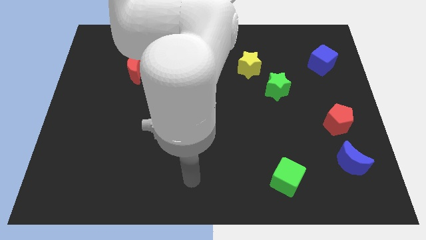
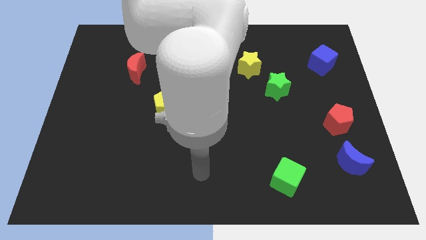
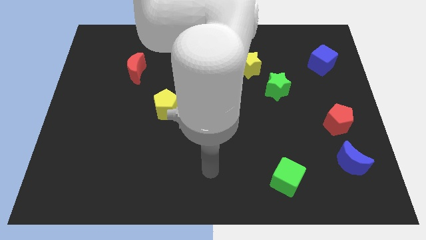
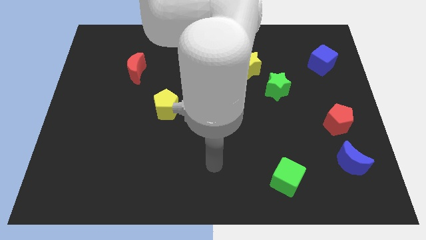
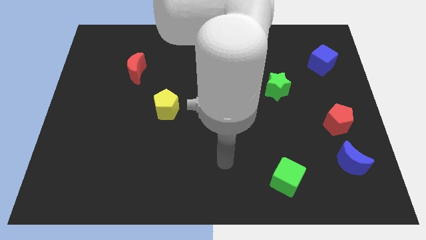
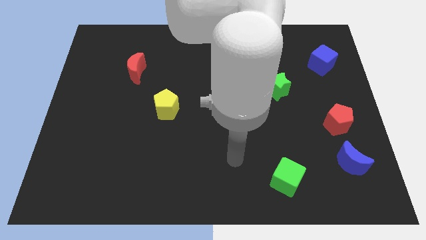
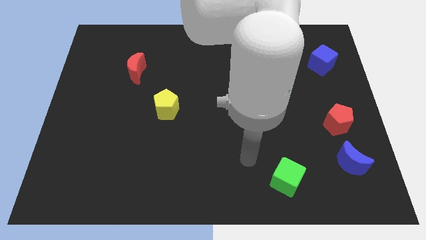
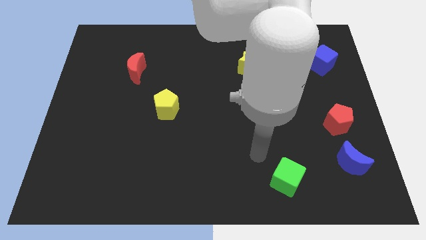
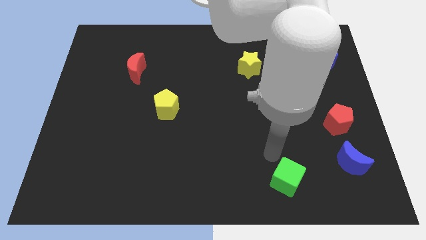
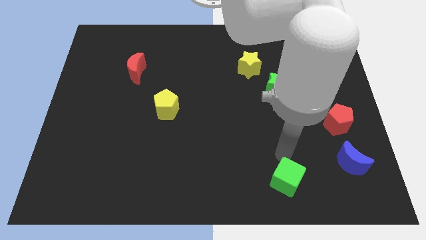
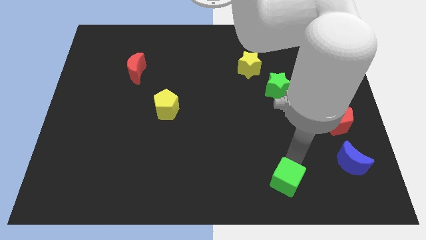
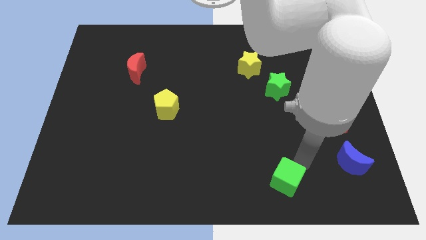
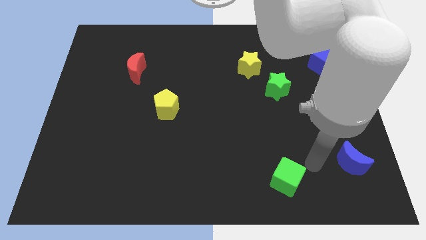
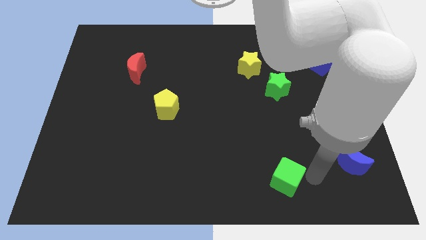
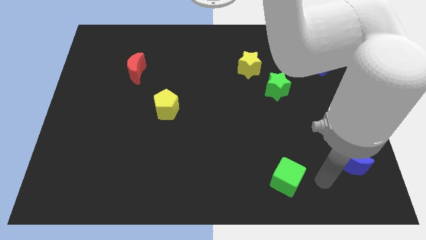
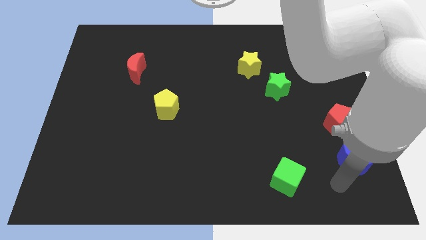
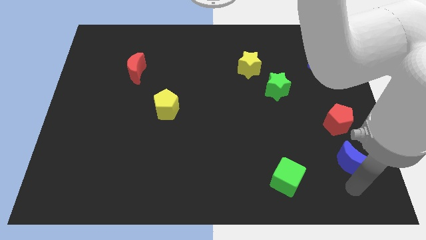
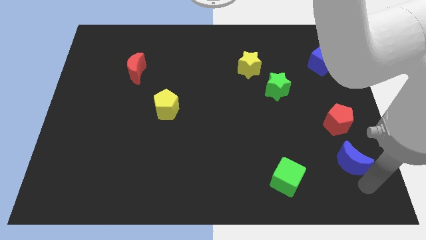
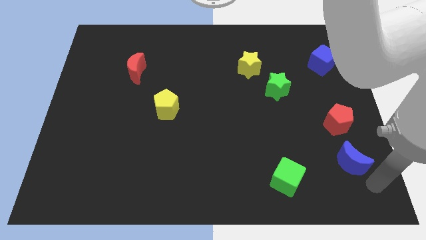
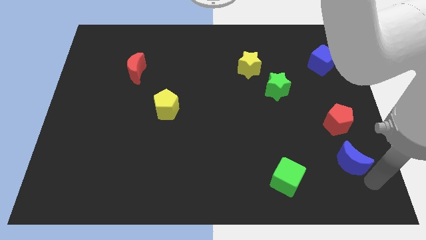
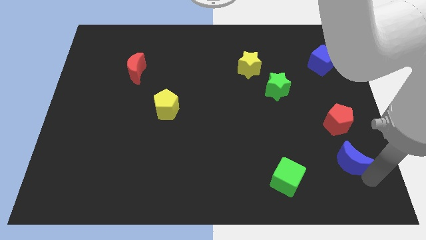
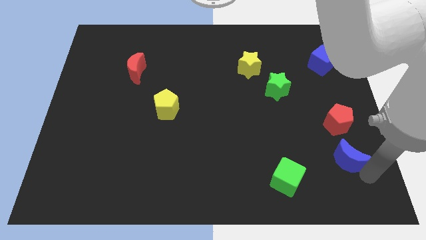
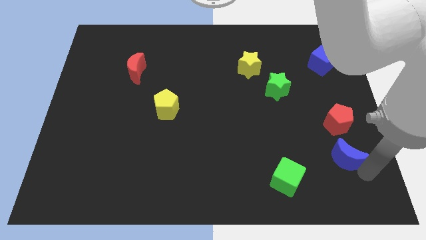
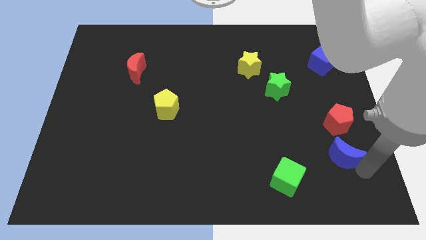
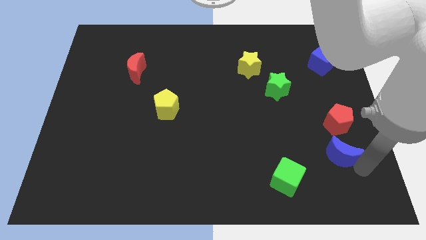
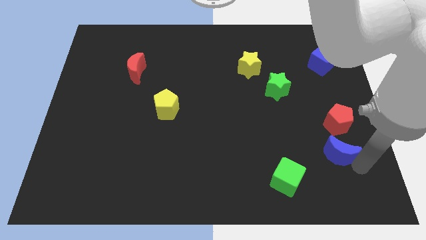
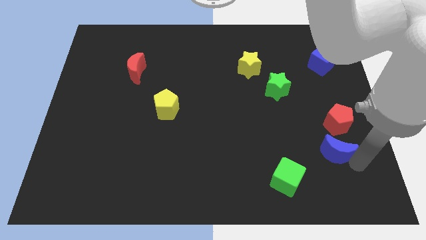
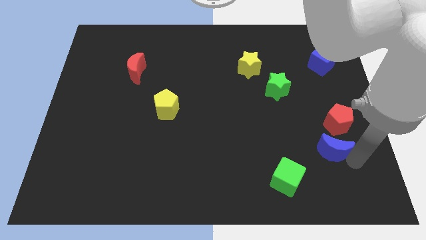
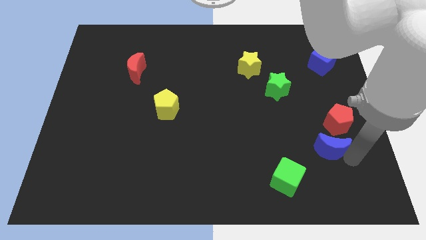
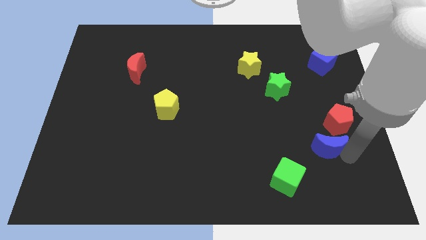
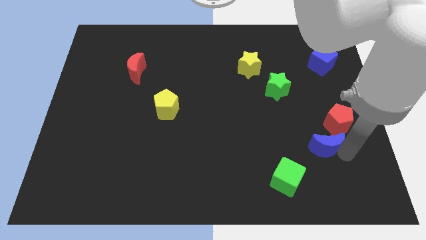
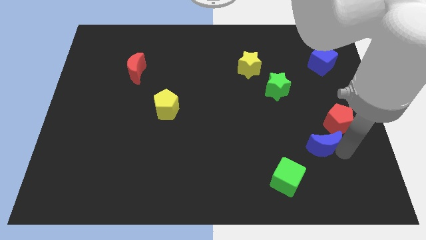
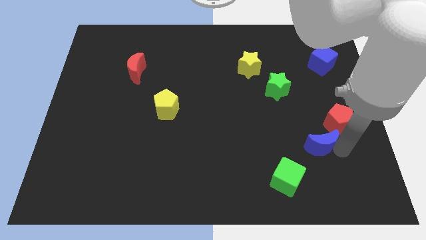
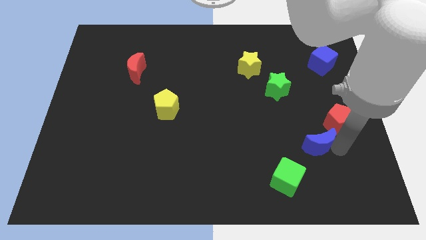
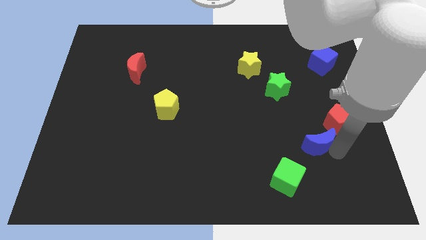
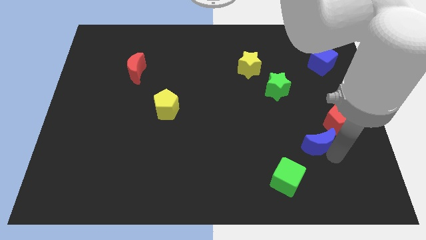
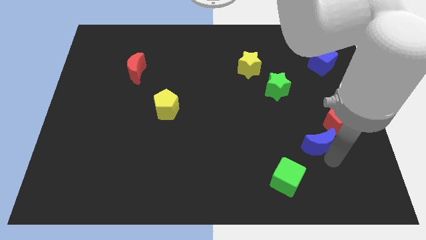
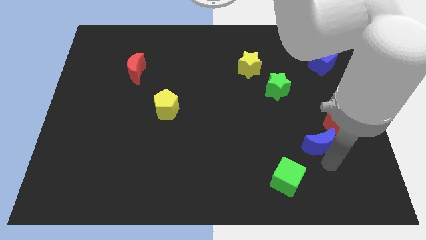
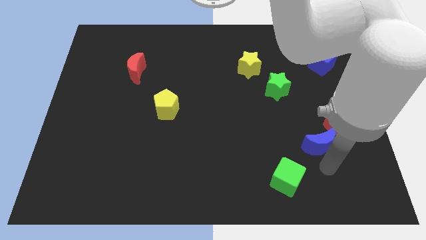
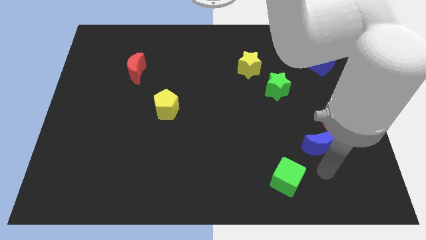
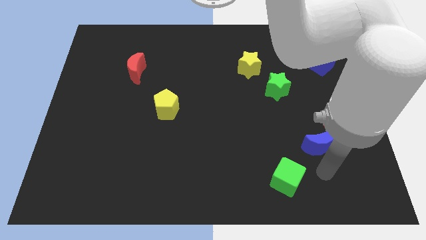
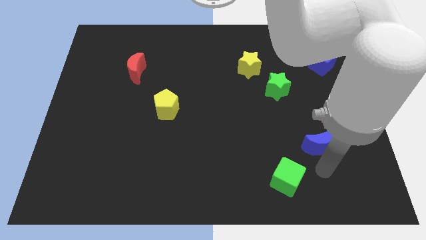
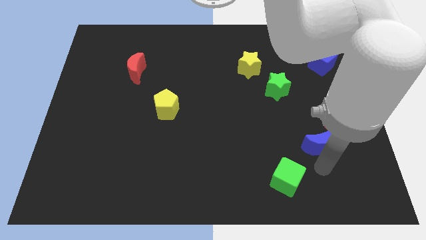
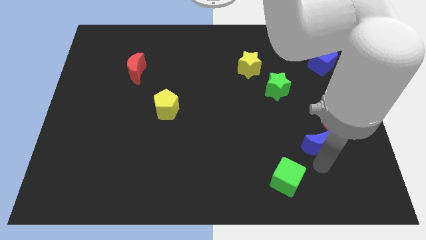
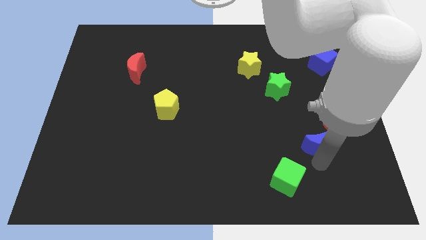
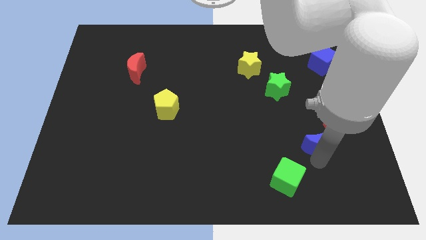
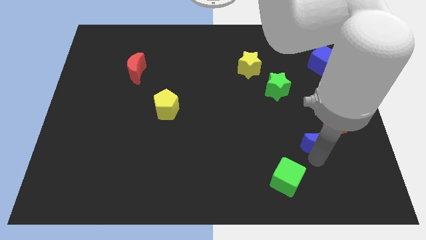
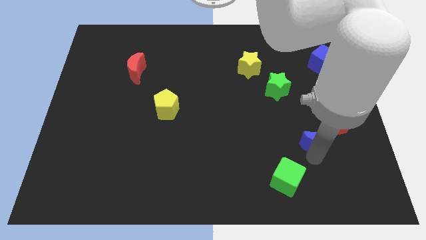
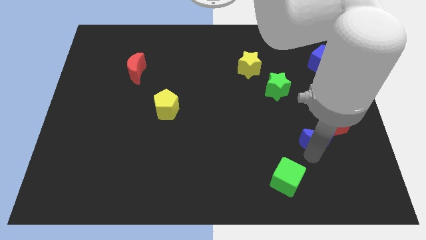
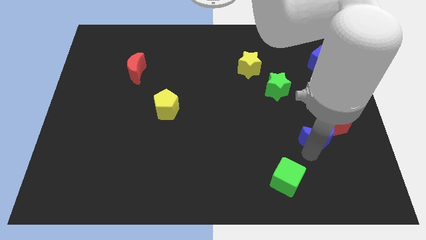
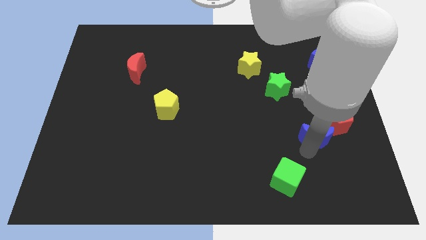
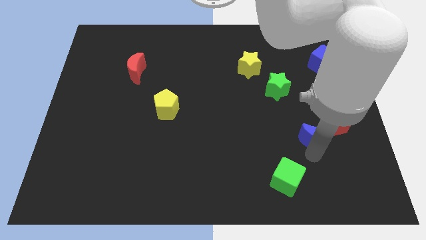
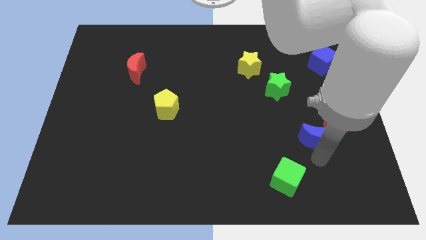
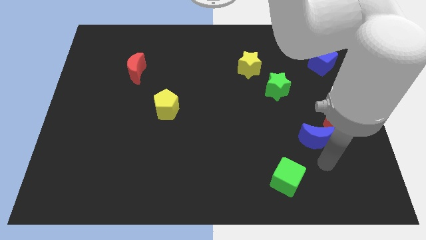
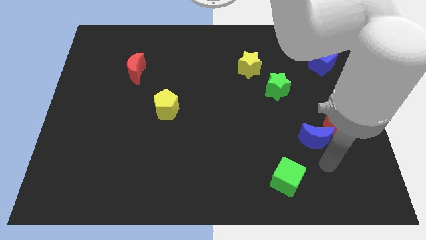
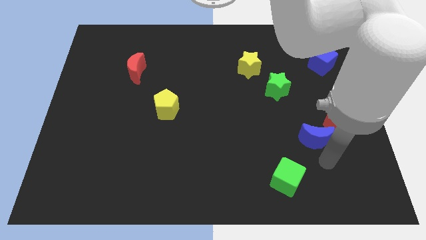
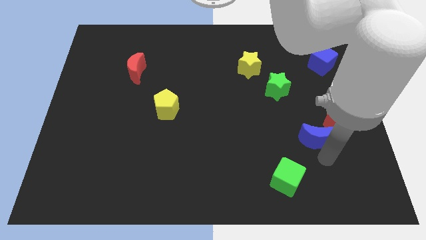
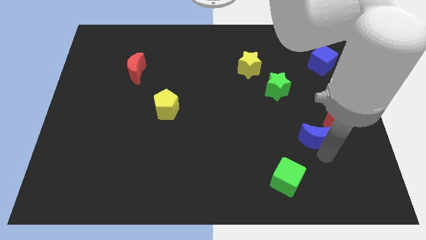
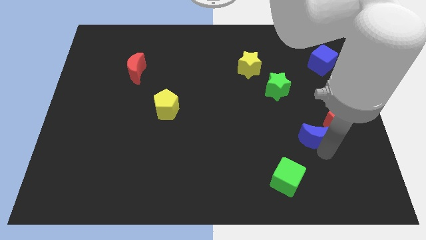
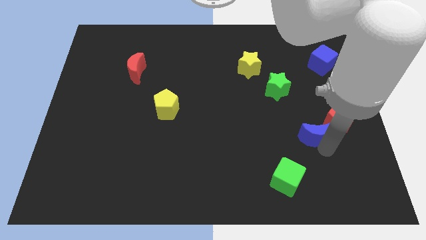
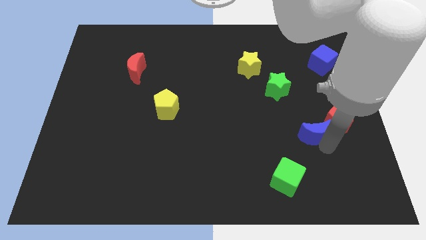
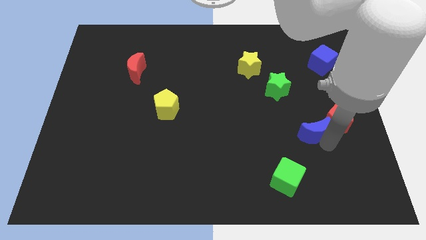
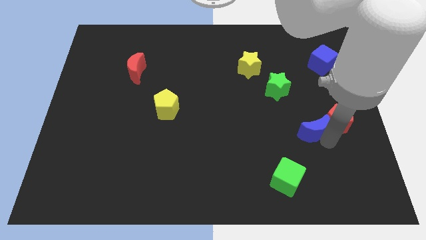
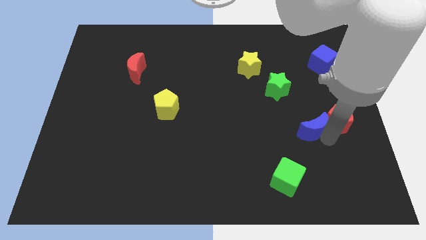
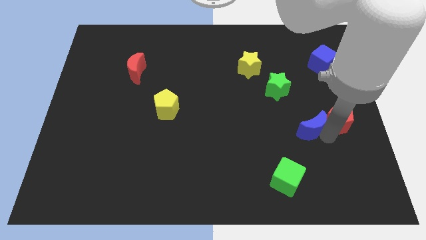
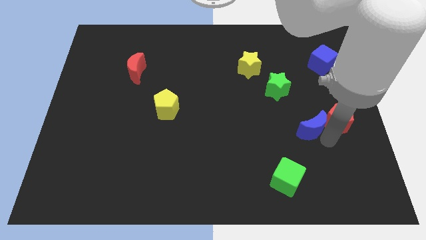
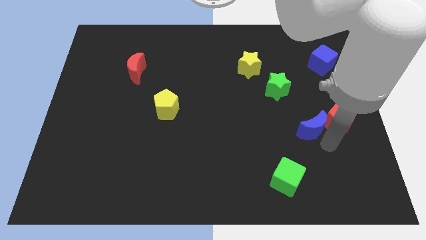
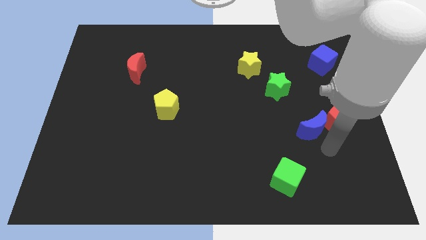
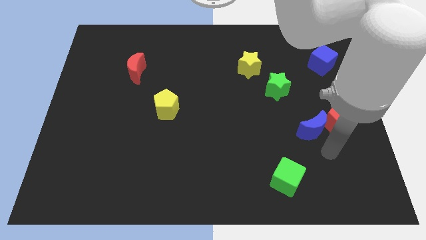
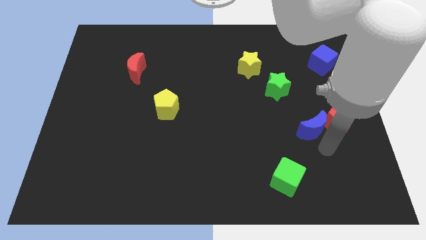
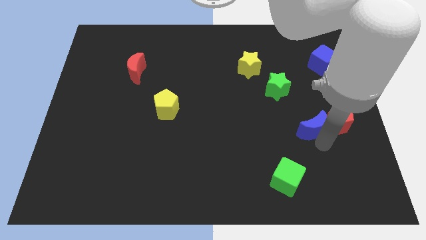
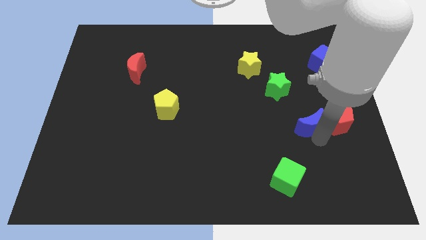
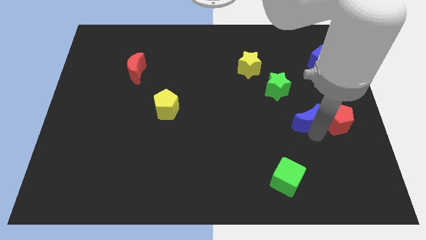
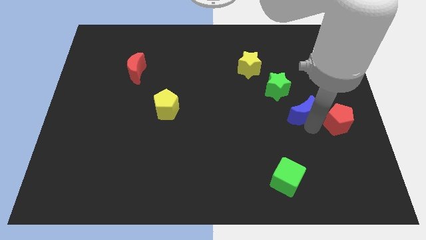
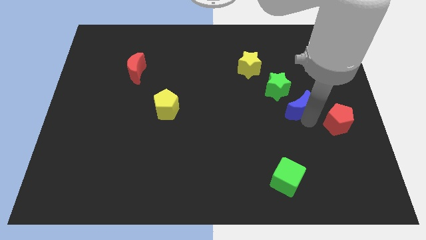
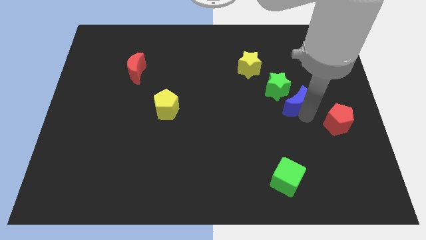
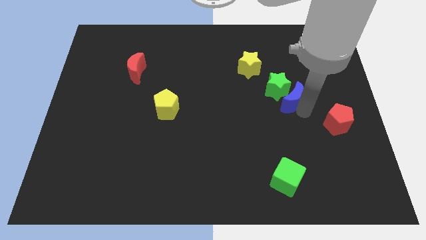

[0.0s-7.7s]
push the blue moon next to the green star

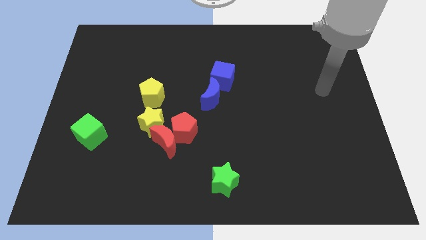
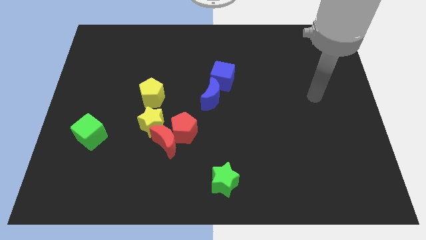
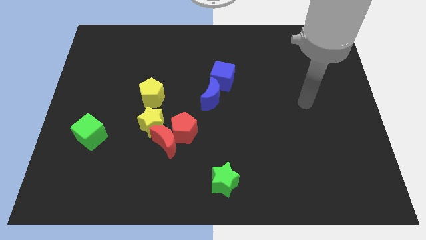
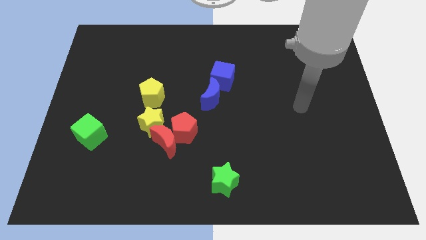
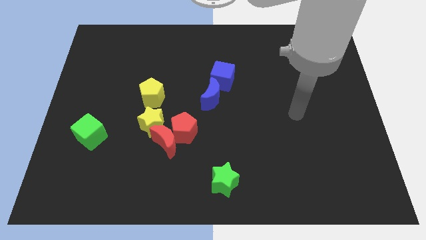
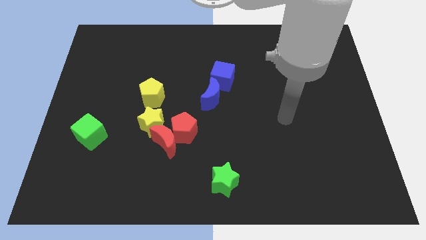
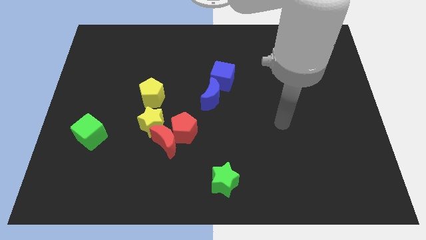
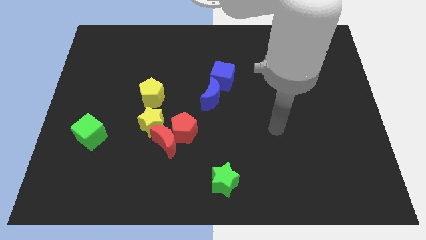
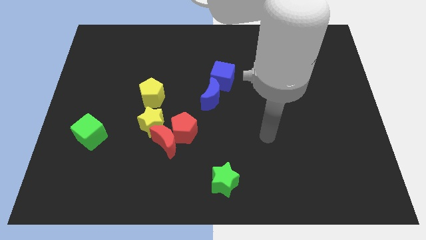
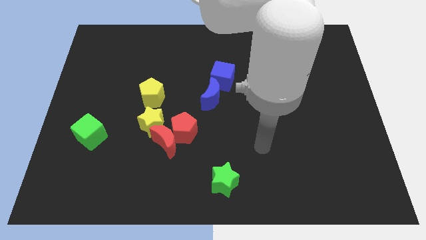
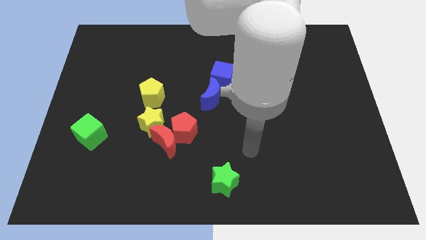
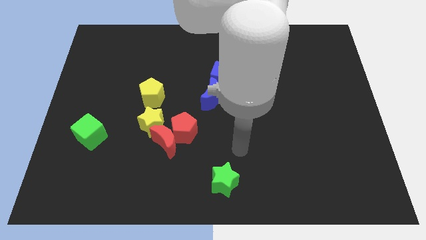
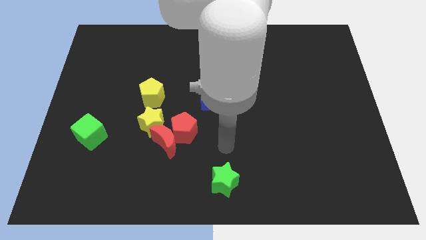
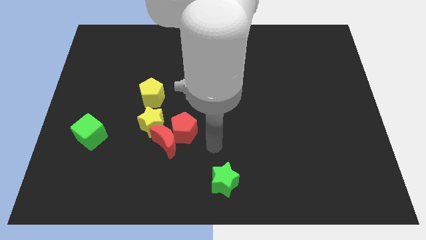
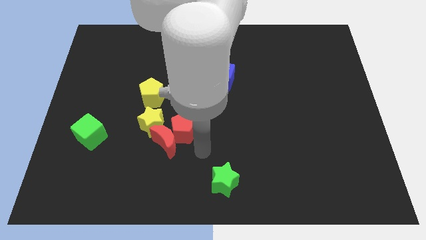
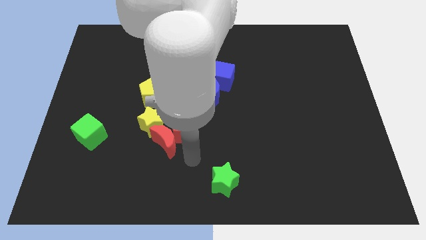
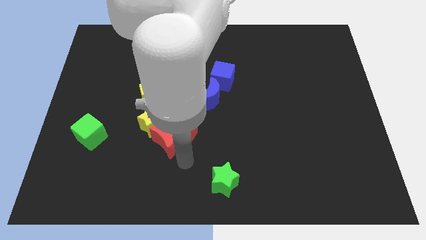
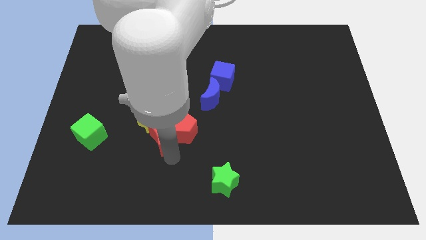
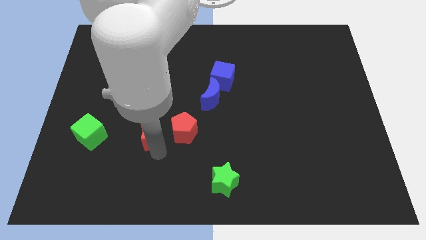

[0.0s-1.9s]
move the yellow star to the yellow pentagon
